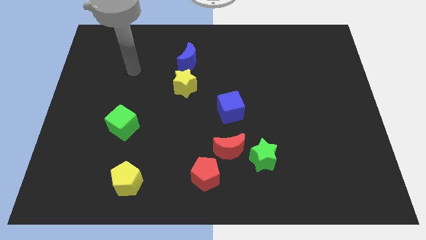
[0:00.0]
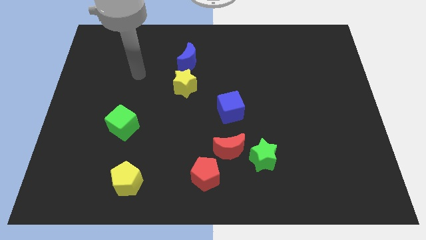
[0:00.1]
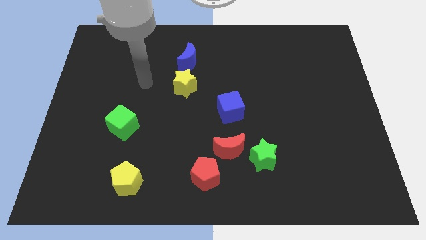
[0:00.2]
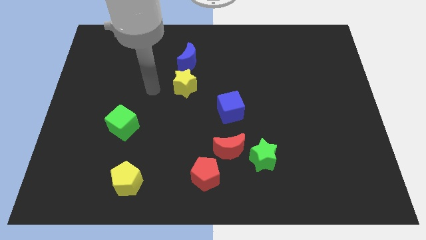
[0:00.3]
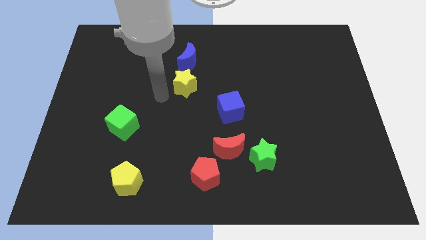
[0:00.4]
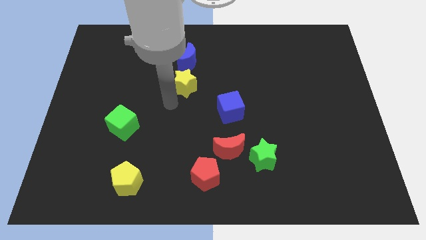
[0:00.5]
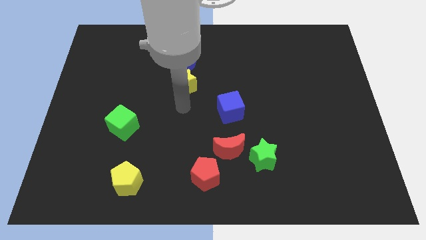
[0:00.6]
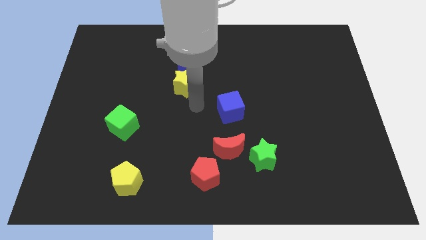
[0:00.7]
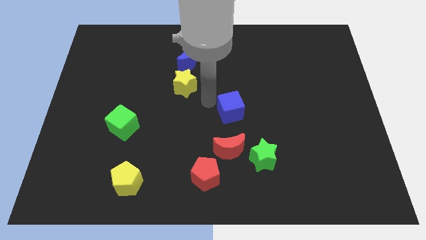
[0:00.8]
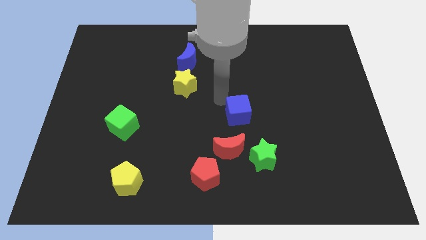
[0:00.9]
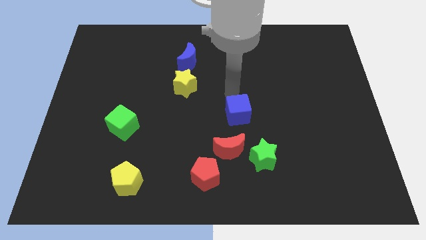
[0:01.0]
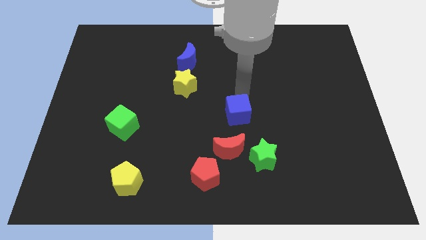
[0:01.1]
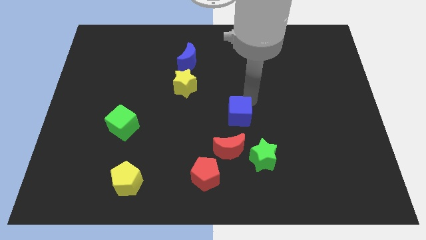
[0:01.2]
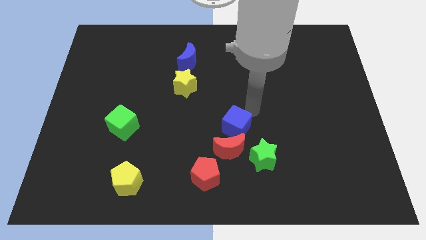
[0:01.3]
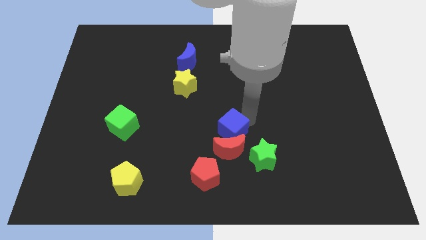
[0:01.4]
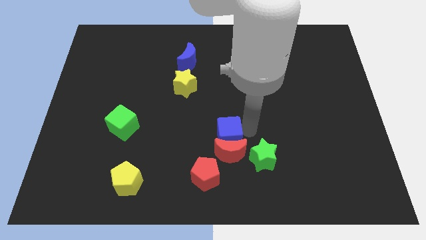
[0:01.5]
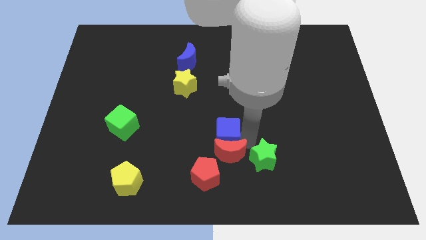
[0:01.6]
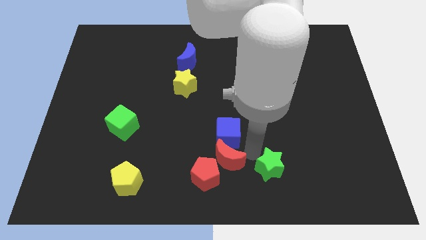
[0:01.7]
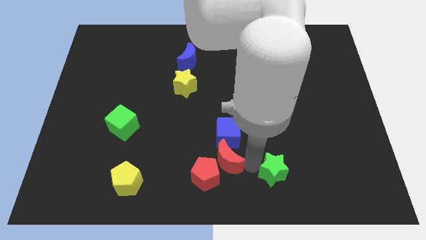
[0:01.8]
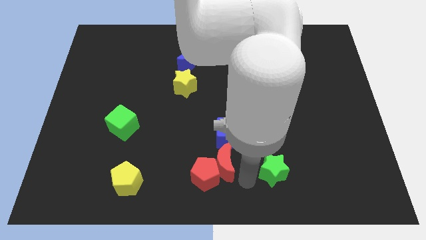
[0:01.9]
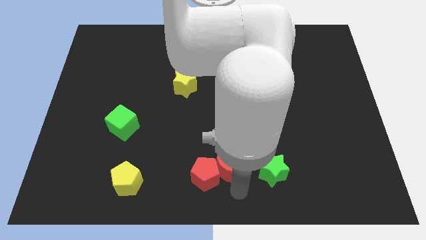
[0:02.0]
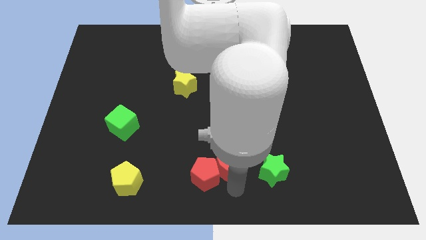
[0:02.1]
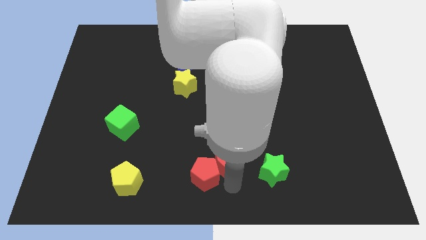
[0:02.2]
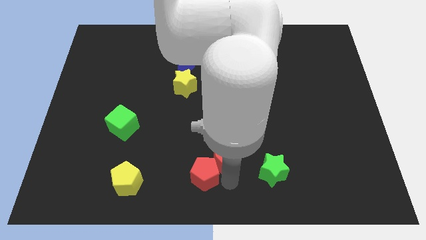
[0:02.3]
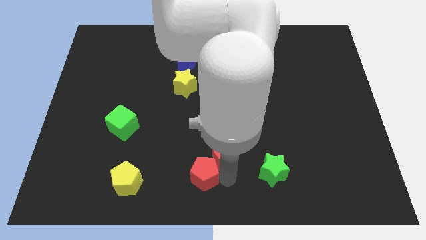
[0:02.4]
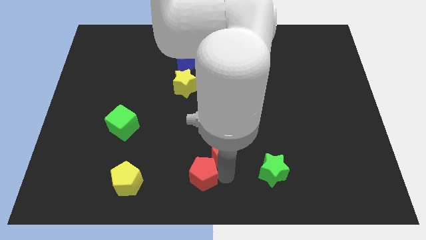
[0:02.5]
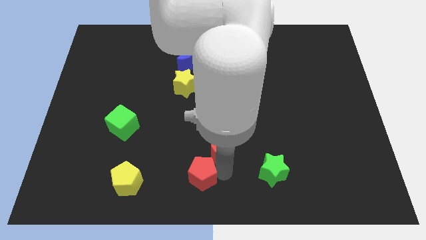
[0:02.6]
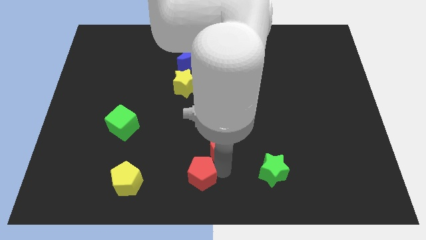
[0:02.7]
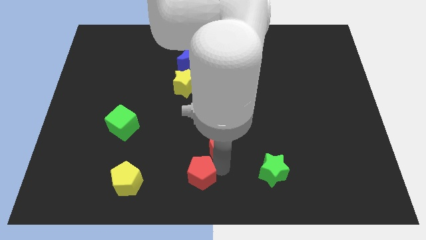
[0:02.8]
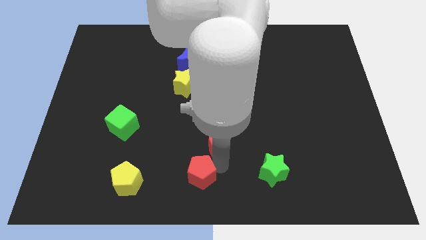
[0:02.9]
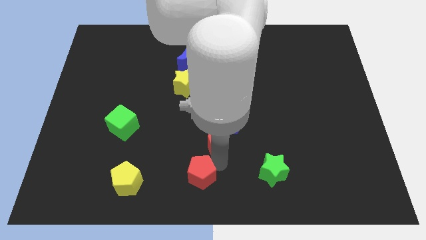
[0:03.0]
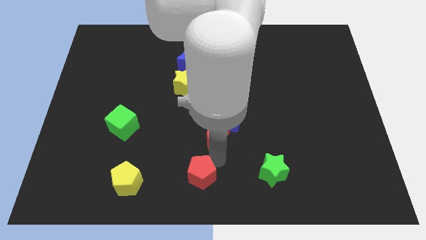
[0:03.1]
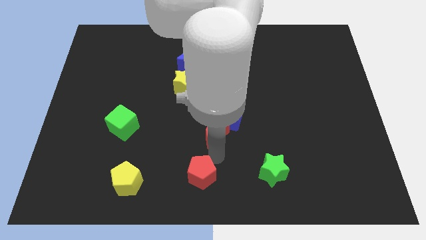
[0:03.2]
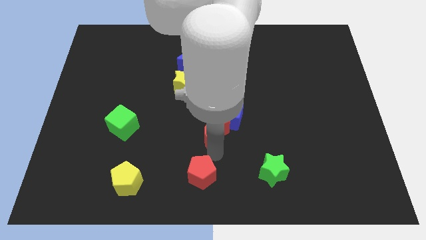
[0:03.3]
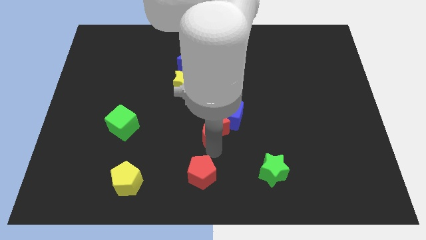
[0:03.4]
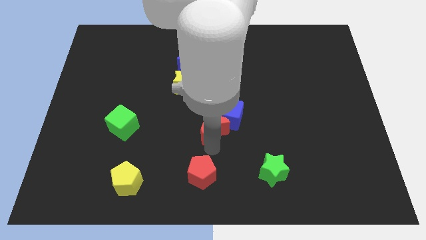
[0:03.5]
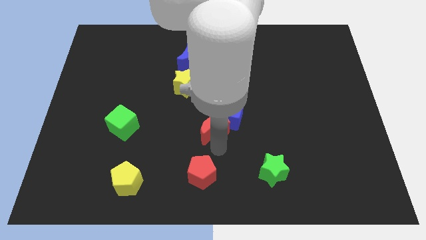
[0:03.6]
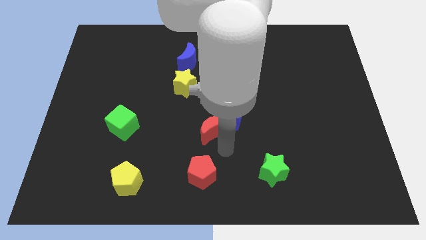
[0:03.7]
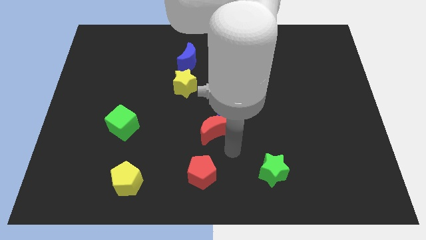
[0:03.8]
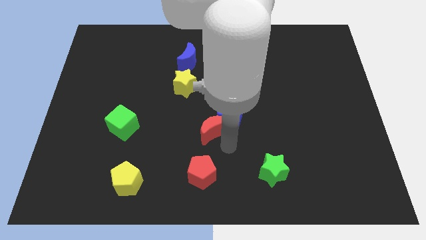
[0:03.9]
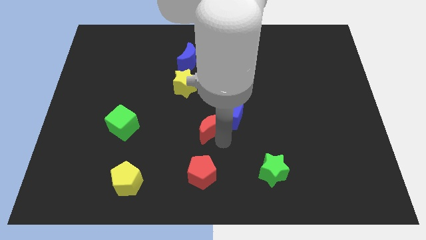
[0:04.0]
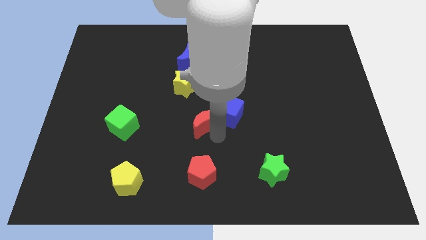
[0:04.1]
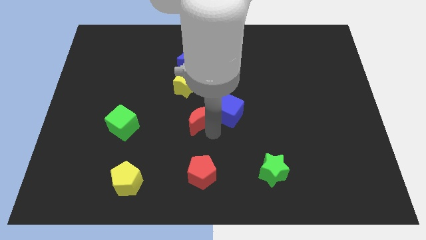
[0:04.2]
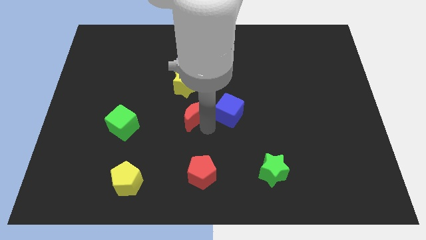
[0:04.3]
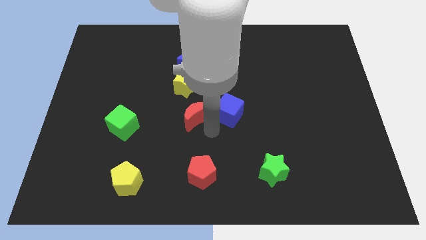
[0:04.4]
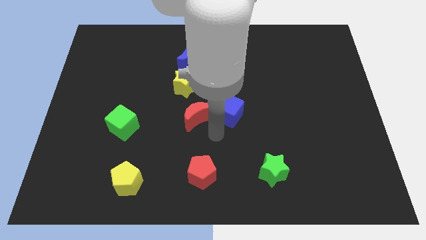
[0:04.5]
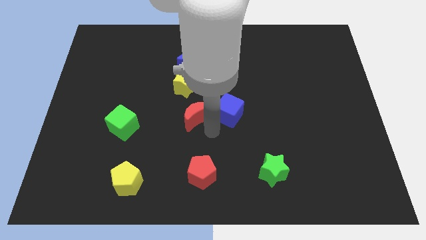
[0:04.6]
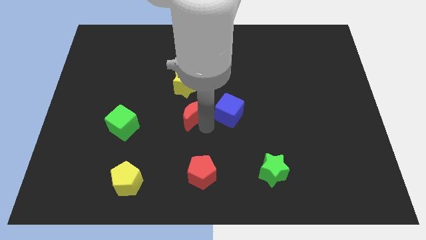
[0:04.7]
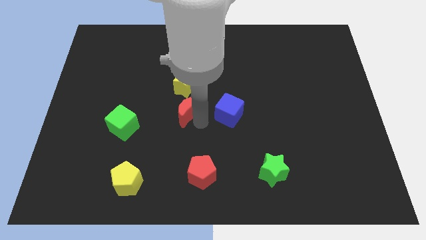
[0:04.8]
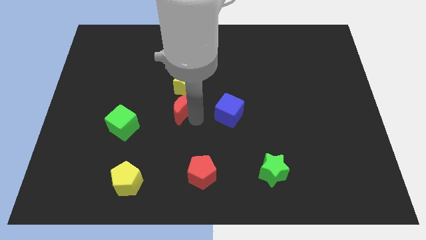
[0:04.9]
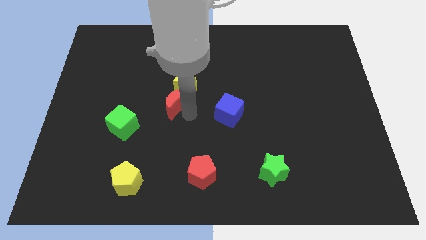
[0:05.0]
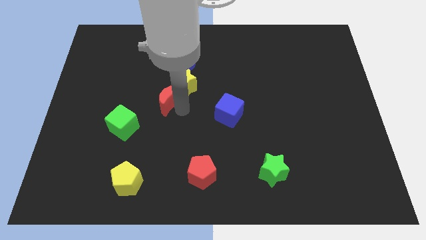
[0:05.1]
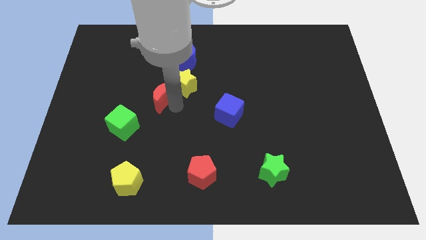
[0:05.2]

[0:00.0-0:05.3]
move the red moon diagonally up and left

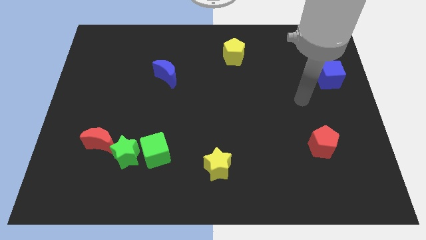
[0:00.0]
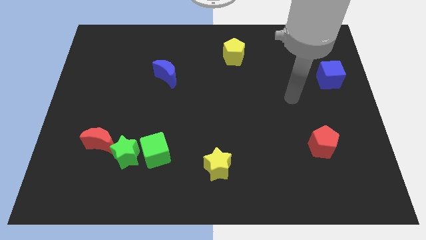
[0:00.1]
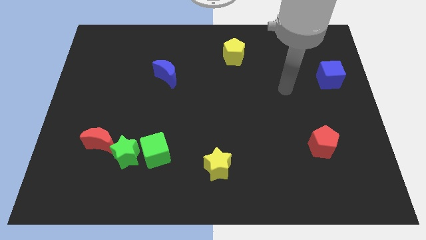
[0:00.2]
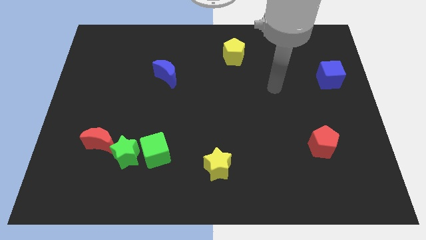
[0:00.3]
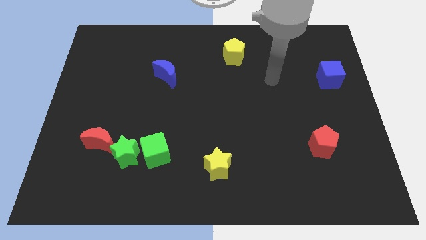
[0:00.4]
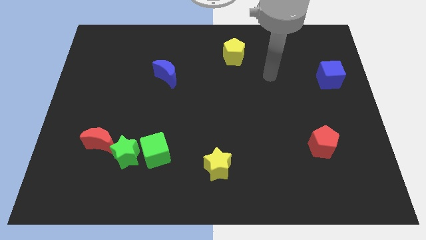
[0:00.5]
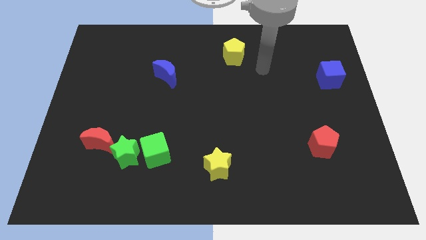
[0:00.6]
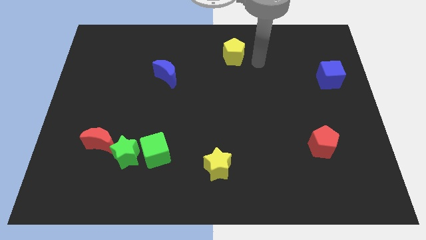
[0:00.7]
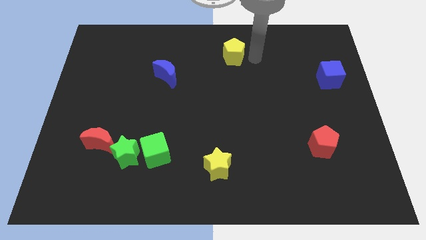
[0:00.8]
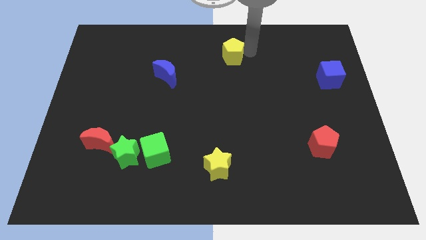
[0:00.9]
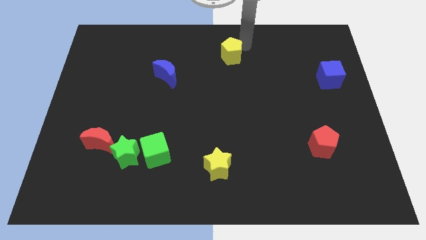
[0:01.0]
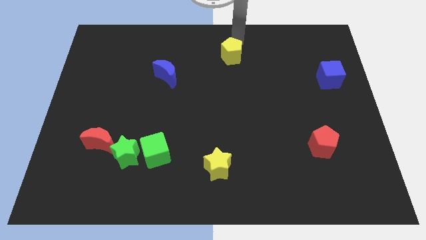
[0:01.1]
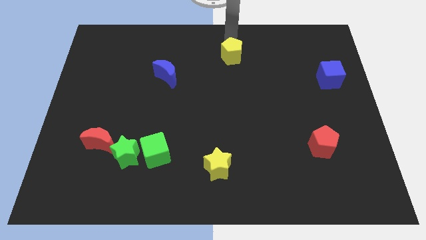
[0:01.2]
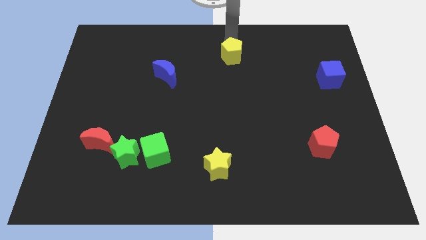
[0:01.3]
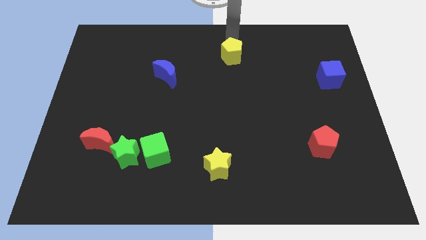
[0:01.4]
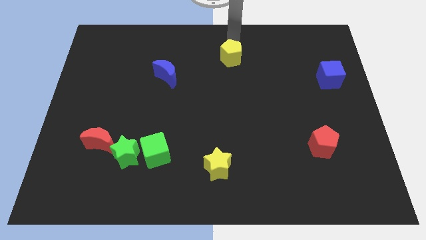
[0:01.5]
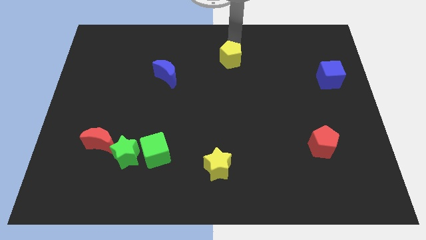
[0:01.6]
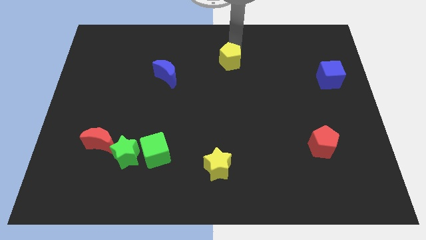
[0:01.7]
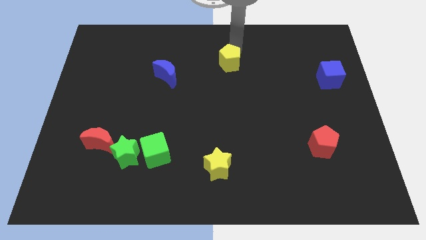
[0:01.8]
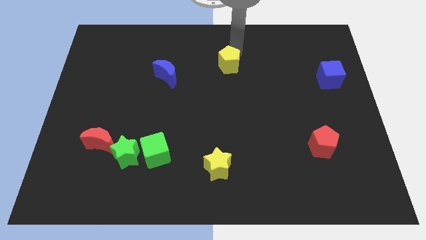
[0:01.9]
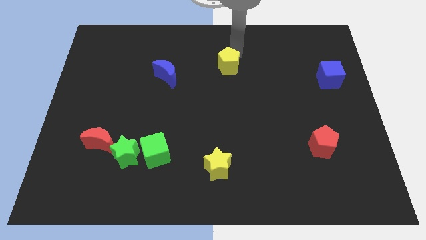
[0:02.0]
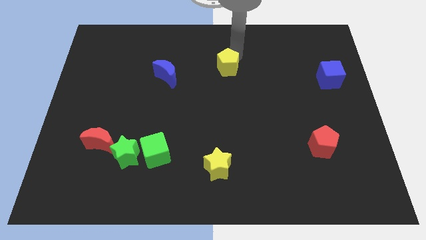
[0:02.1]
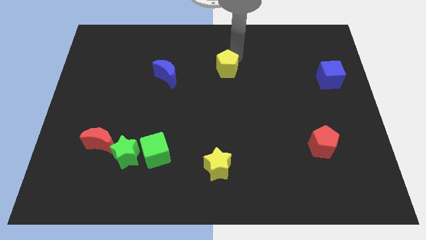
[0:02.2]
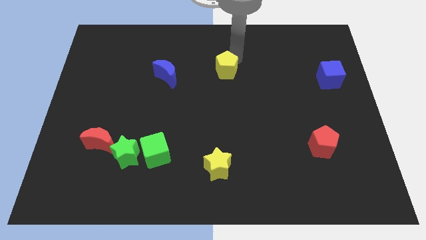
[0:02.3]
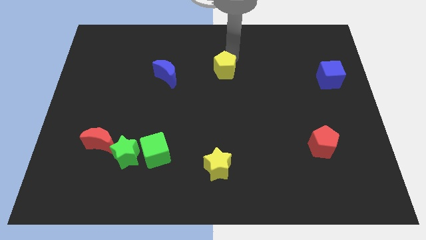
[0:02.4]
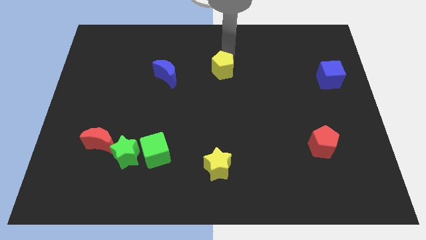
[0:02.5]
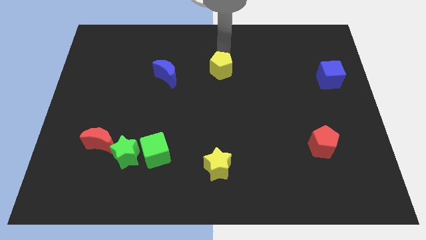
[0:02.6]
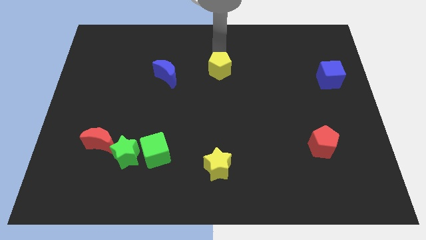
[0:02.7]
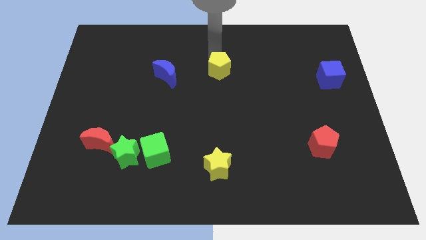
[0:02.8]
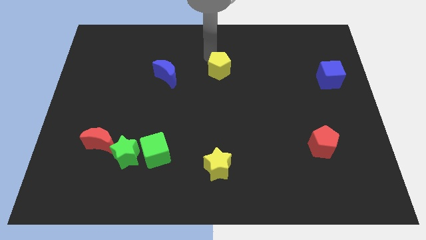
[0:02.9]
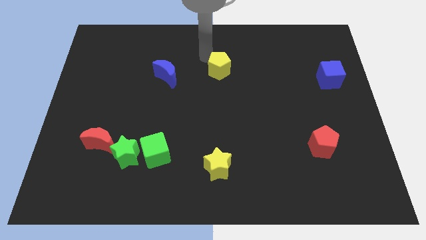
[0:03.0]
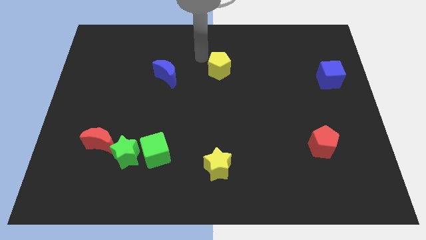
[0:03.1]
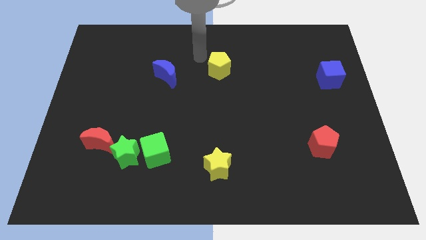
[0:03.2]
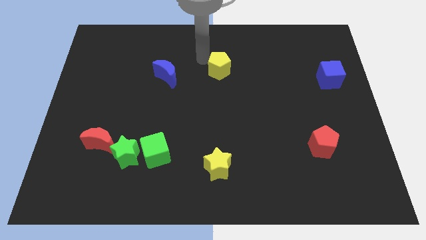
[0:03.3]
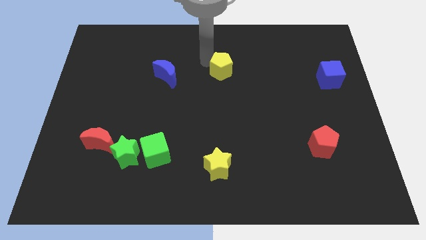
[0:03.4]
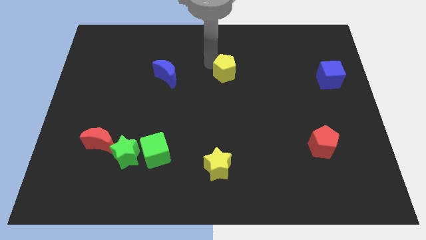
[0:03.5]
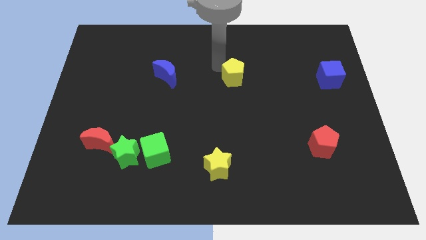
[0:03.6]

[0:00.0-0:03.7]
push the yellow pentagon a little downwards
